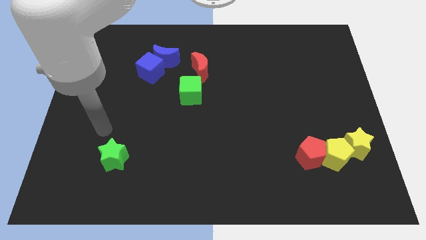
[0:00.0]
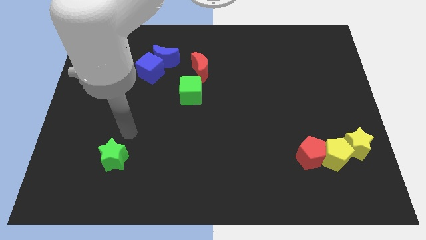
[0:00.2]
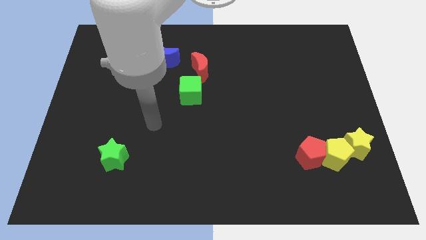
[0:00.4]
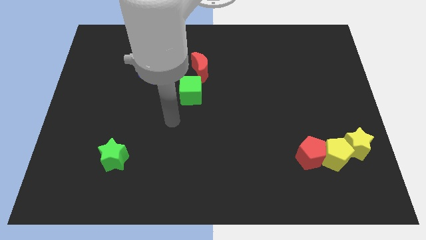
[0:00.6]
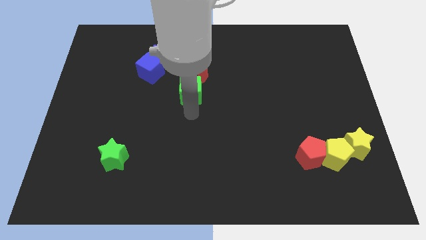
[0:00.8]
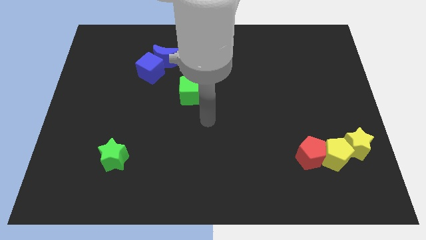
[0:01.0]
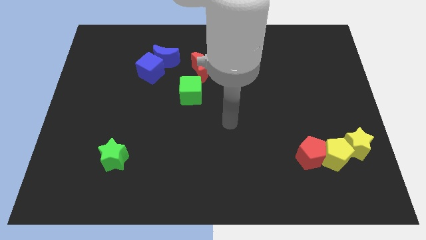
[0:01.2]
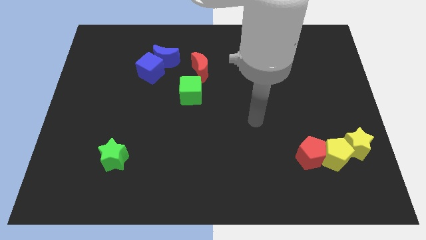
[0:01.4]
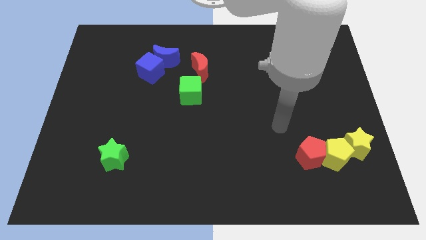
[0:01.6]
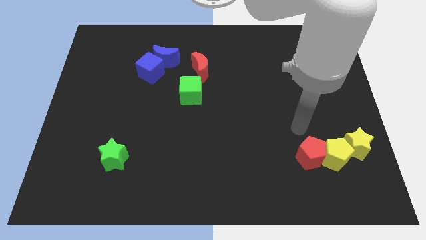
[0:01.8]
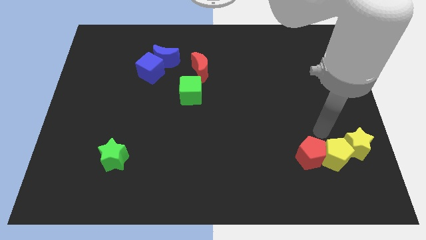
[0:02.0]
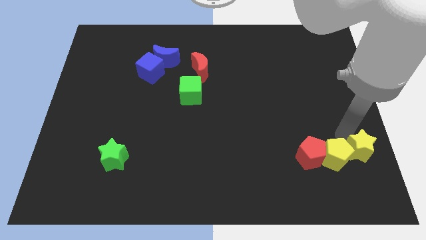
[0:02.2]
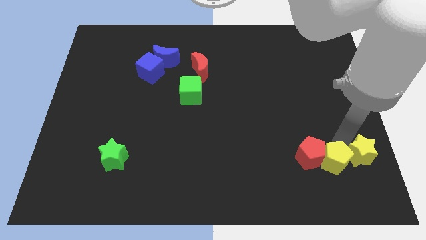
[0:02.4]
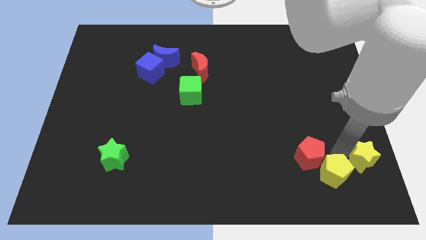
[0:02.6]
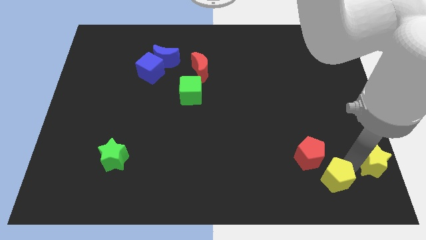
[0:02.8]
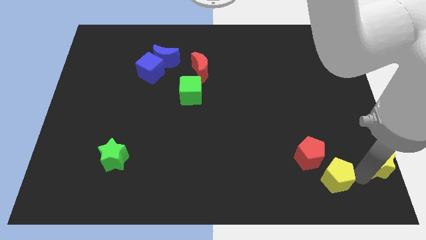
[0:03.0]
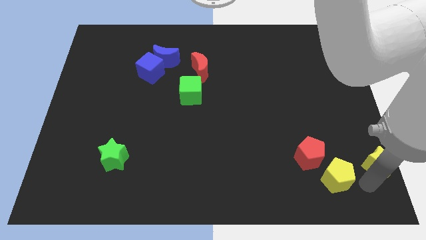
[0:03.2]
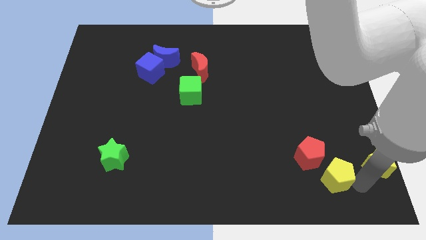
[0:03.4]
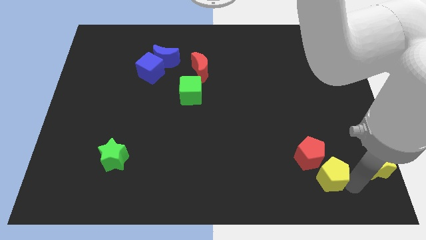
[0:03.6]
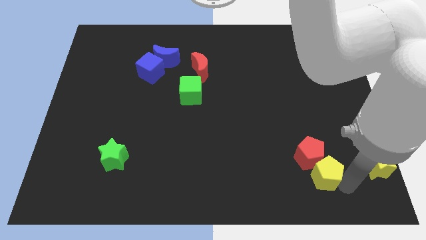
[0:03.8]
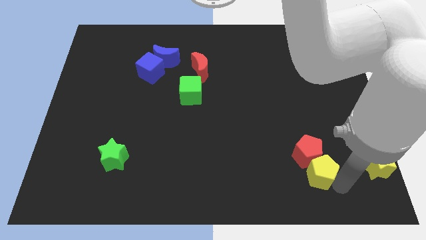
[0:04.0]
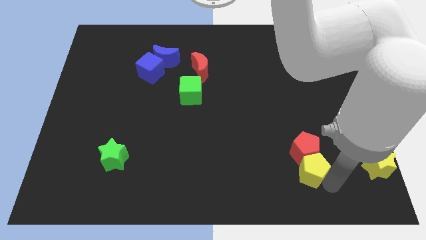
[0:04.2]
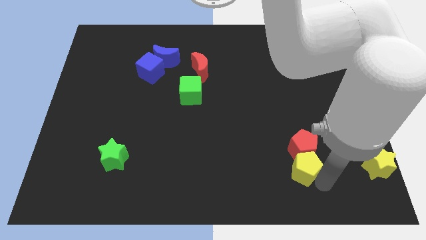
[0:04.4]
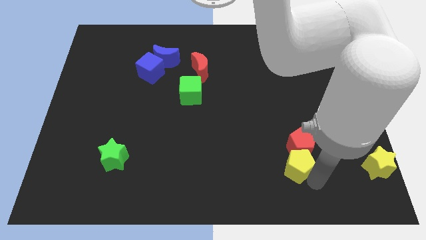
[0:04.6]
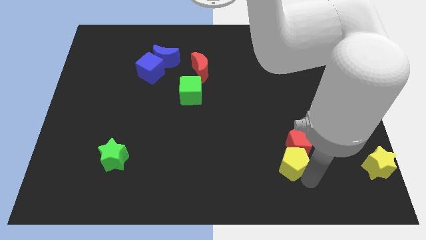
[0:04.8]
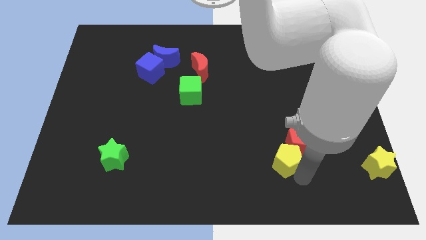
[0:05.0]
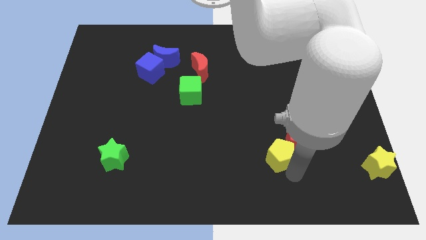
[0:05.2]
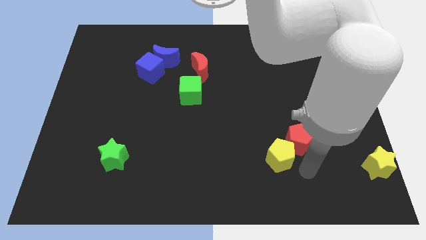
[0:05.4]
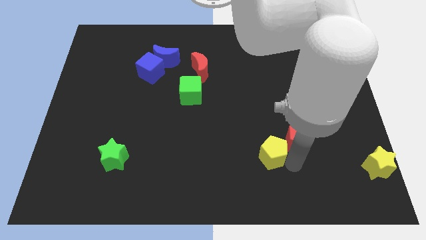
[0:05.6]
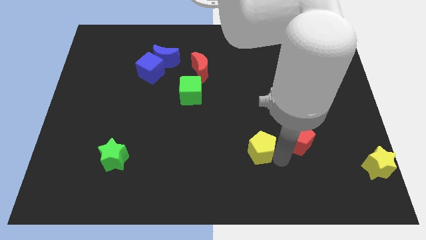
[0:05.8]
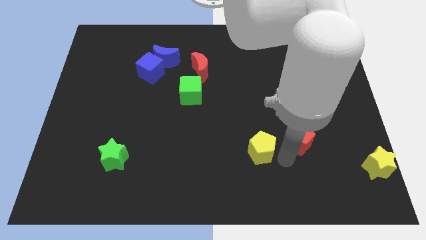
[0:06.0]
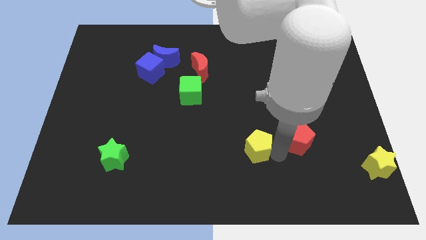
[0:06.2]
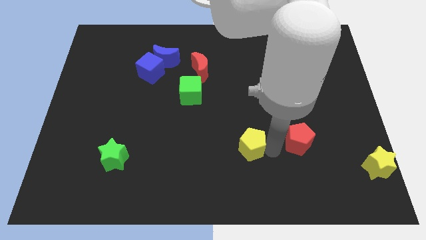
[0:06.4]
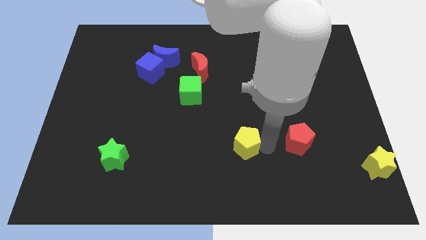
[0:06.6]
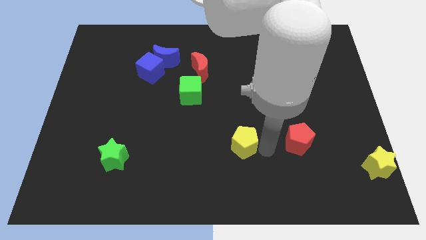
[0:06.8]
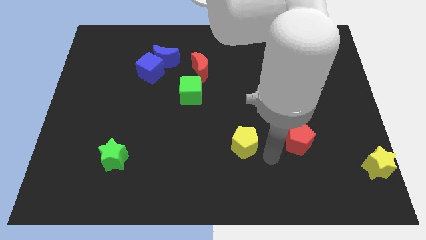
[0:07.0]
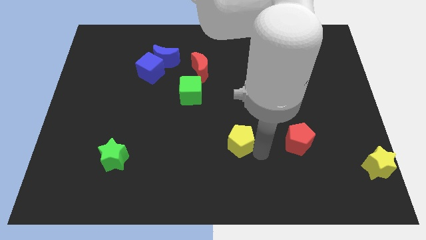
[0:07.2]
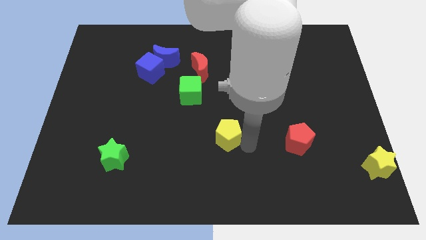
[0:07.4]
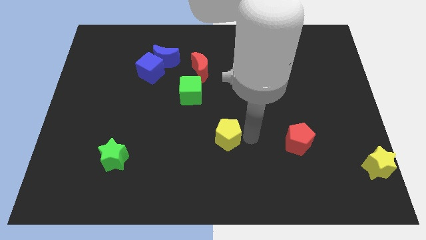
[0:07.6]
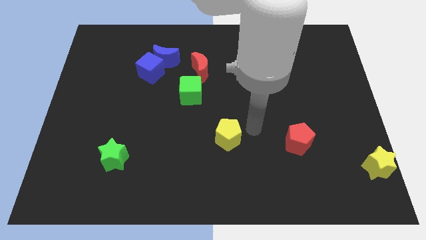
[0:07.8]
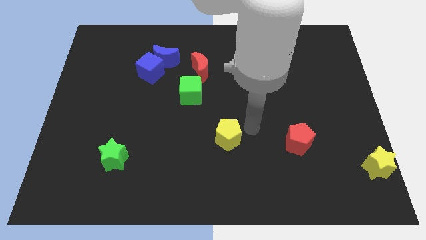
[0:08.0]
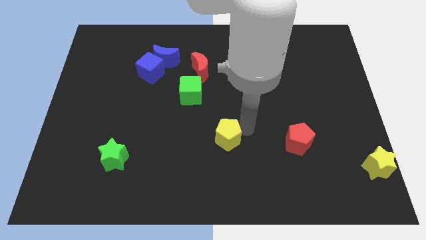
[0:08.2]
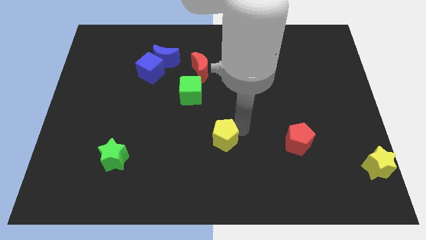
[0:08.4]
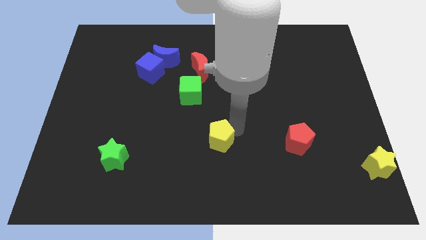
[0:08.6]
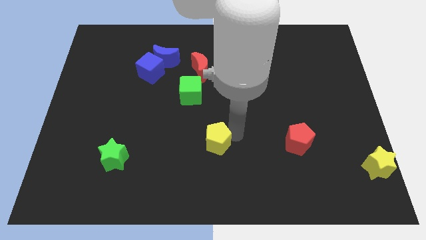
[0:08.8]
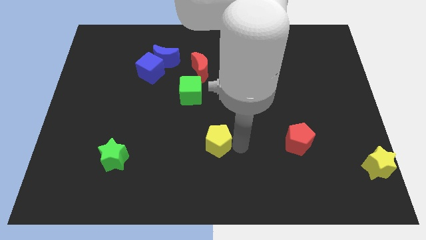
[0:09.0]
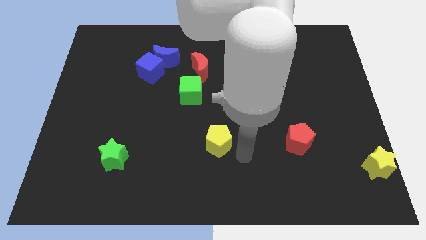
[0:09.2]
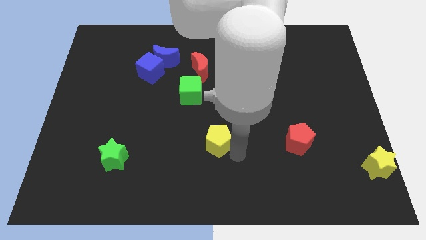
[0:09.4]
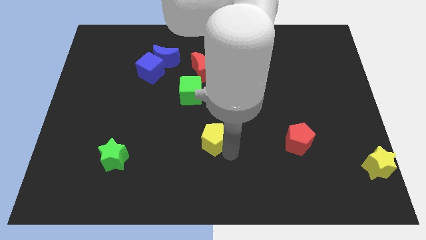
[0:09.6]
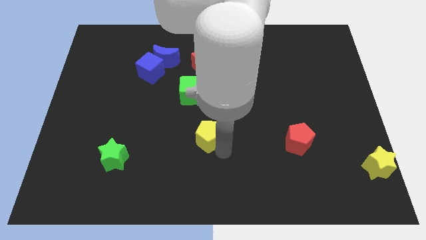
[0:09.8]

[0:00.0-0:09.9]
move the yellow pentagon below the green cube

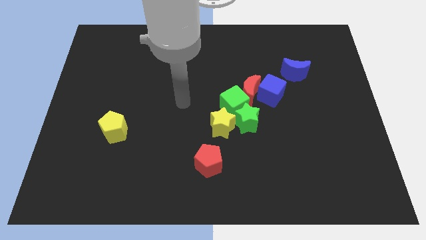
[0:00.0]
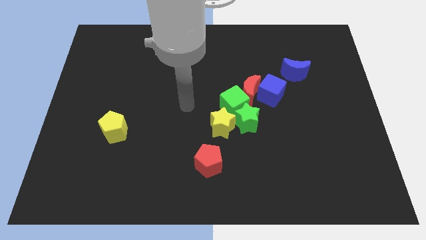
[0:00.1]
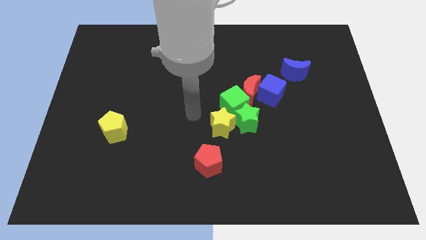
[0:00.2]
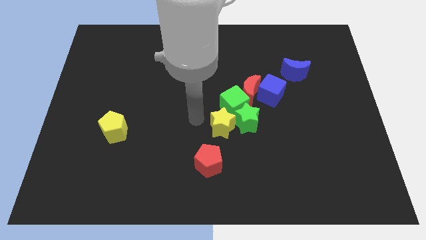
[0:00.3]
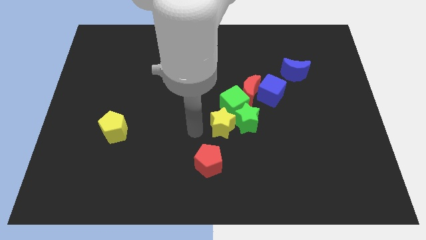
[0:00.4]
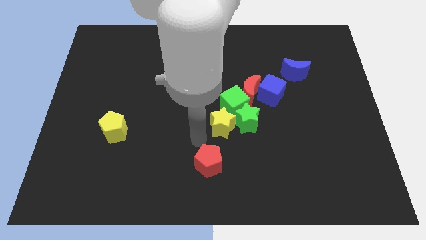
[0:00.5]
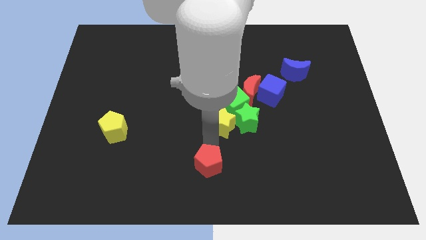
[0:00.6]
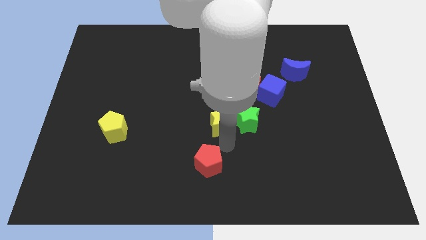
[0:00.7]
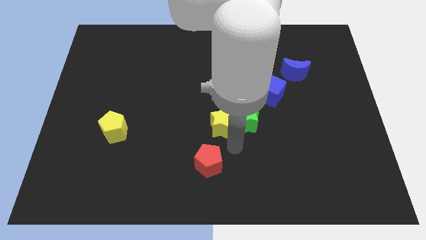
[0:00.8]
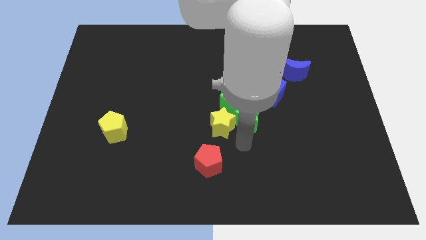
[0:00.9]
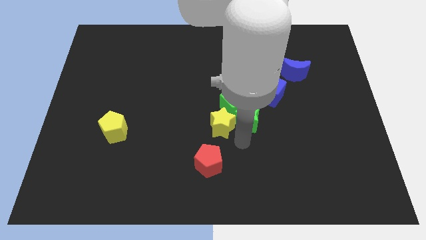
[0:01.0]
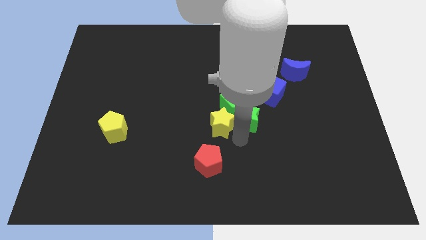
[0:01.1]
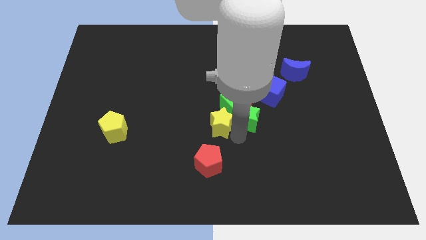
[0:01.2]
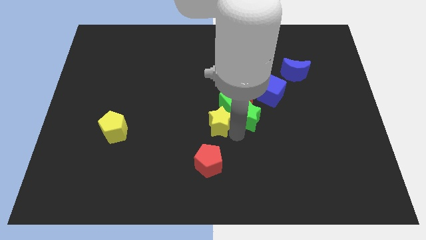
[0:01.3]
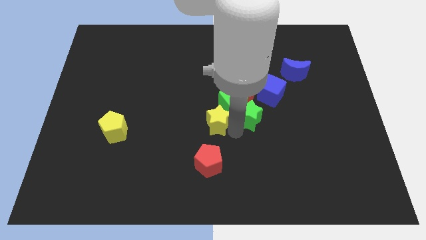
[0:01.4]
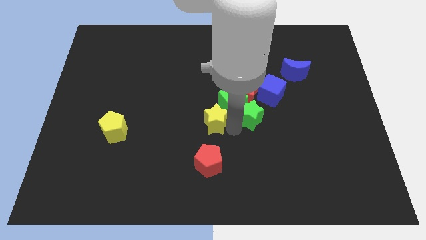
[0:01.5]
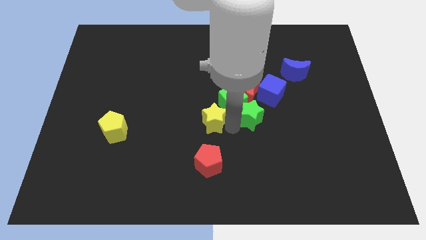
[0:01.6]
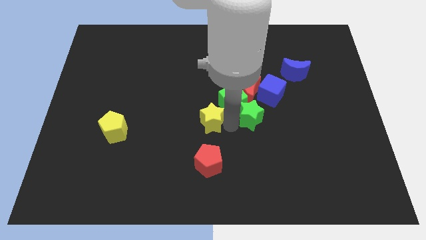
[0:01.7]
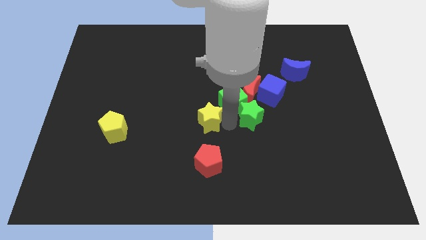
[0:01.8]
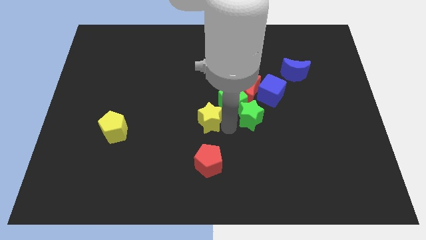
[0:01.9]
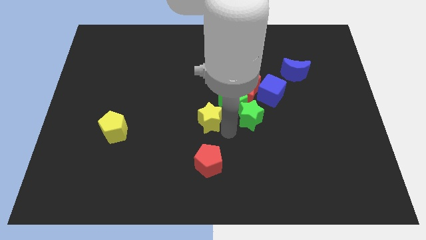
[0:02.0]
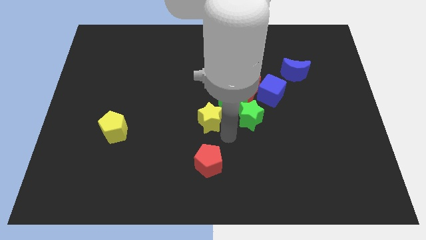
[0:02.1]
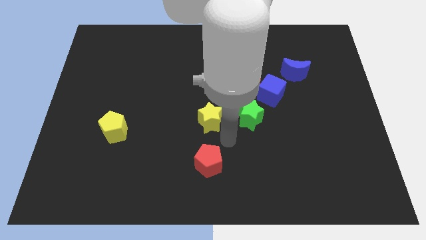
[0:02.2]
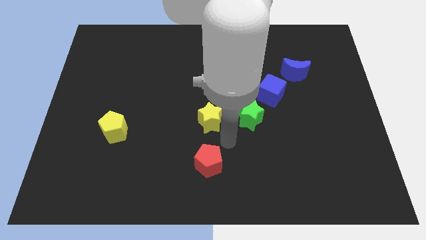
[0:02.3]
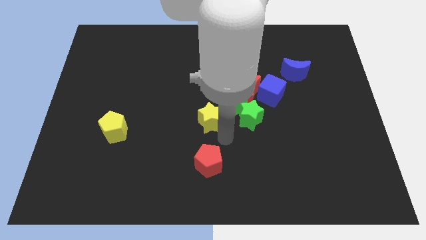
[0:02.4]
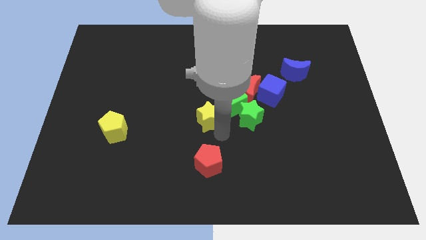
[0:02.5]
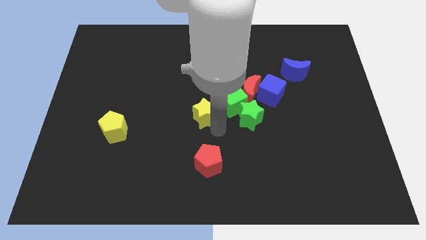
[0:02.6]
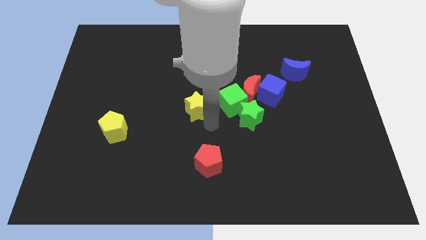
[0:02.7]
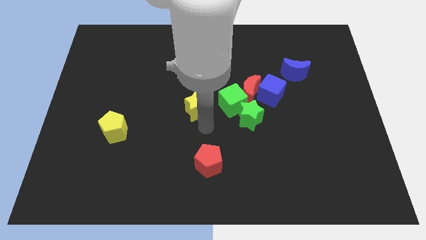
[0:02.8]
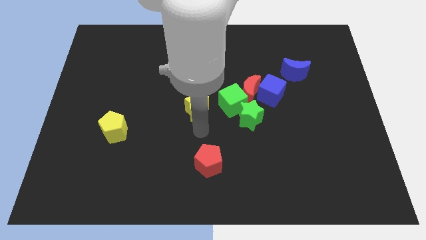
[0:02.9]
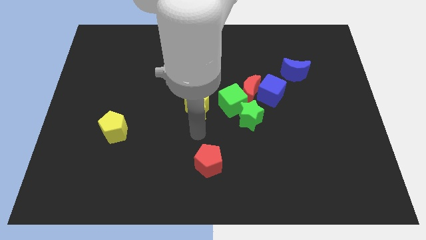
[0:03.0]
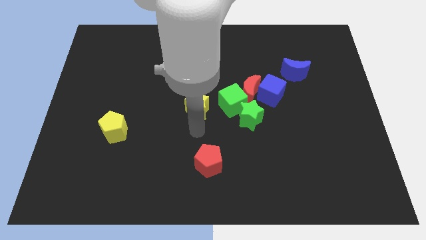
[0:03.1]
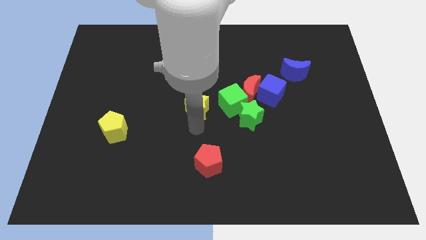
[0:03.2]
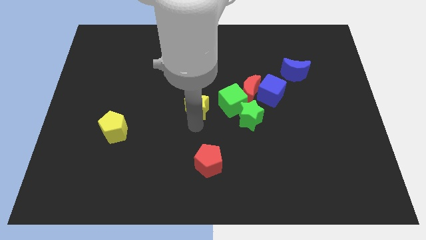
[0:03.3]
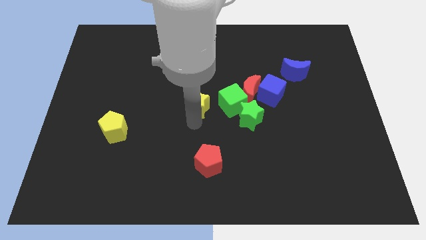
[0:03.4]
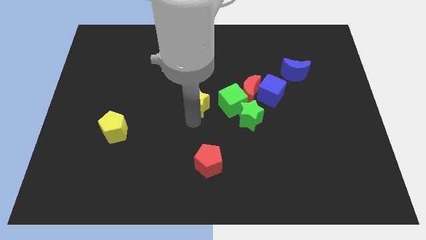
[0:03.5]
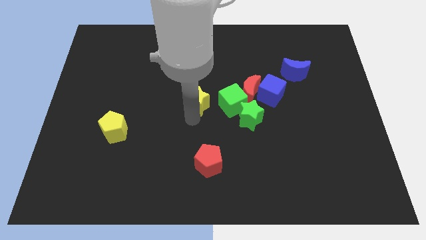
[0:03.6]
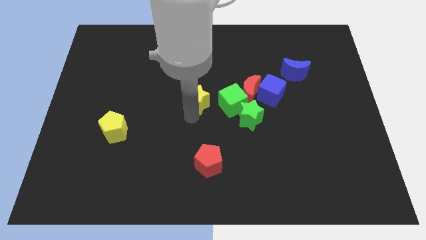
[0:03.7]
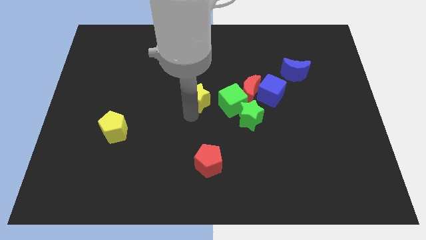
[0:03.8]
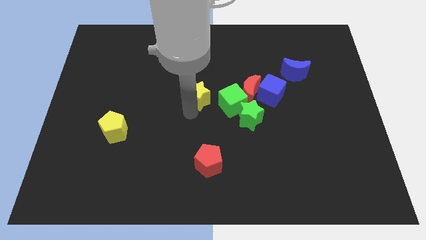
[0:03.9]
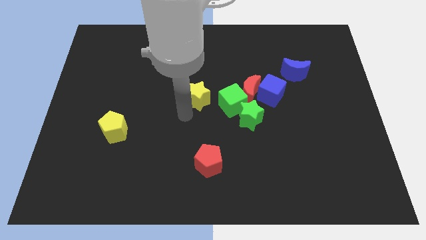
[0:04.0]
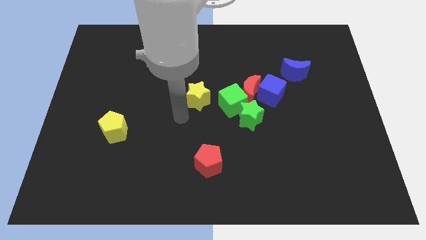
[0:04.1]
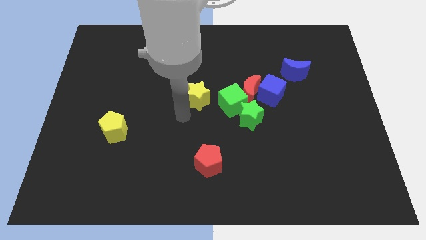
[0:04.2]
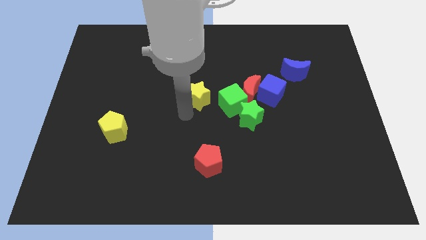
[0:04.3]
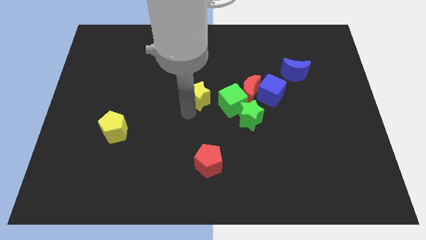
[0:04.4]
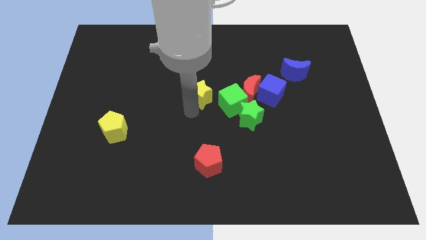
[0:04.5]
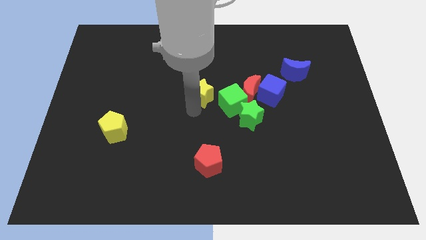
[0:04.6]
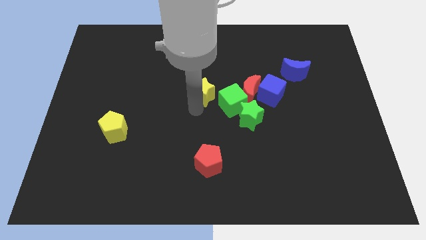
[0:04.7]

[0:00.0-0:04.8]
push the yellow star to the left of the blue cube
